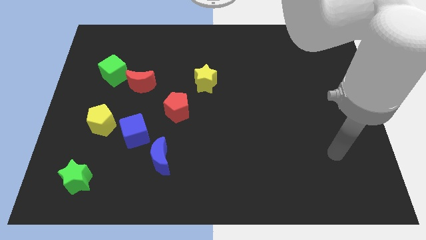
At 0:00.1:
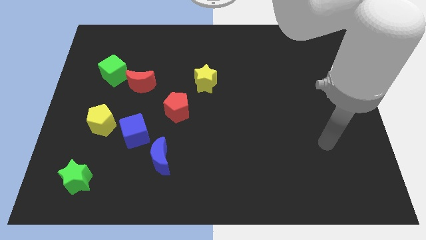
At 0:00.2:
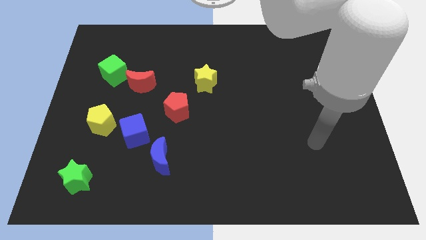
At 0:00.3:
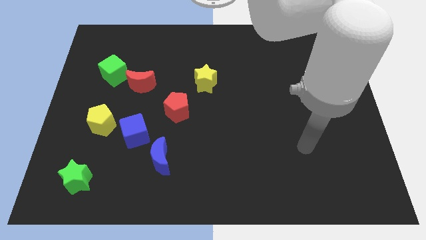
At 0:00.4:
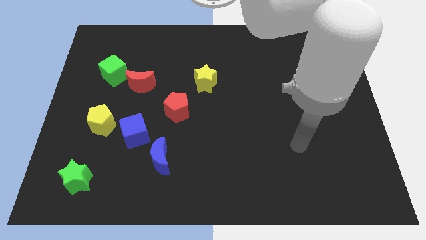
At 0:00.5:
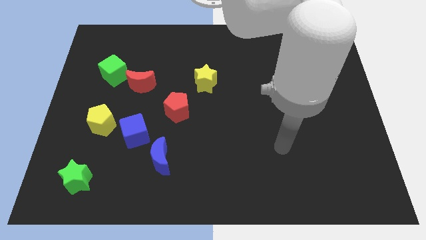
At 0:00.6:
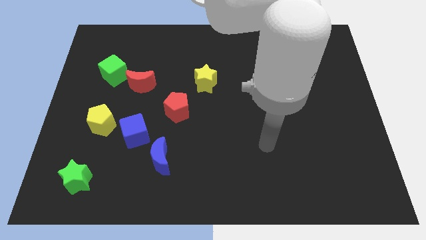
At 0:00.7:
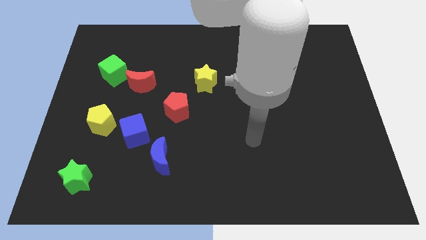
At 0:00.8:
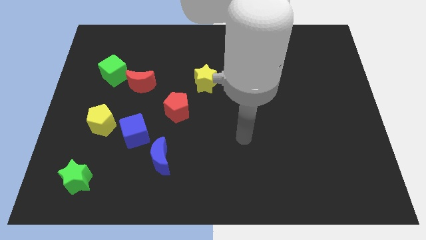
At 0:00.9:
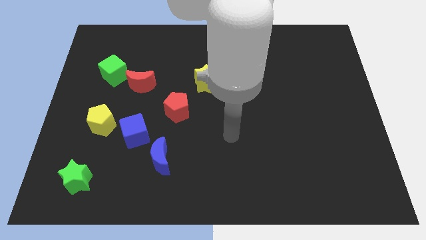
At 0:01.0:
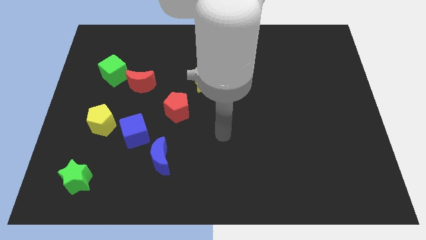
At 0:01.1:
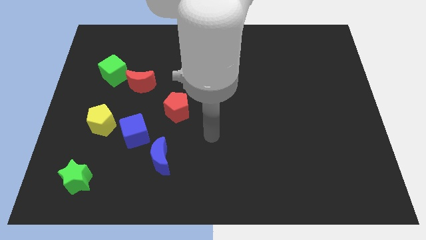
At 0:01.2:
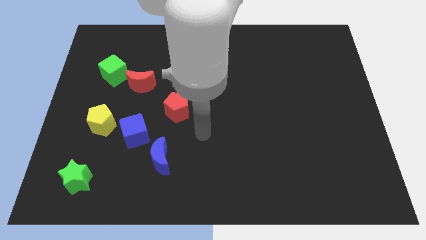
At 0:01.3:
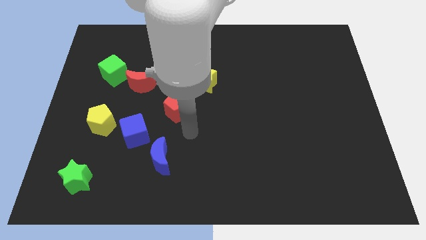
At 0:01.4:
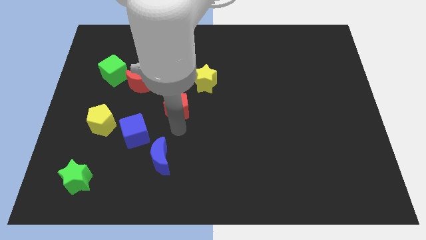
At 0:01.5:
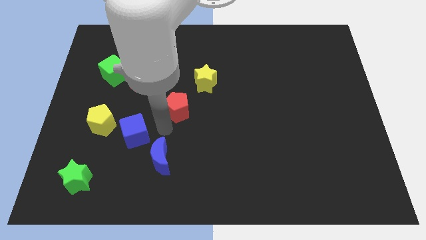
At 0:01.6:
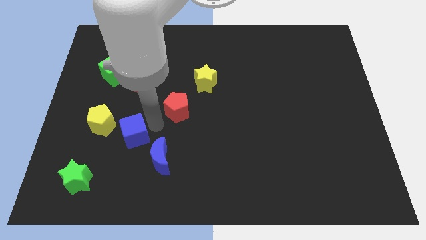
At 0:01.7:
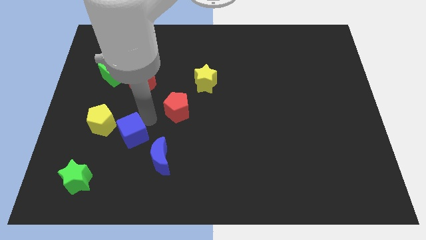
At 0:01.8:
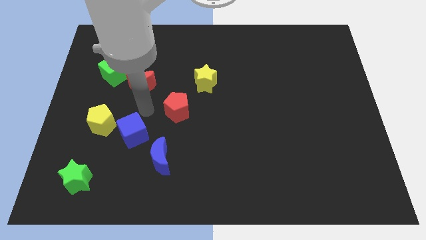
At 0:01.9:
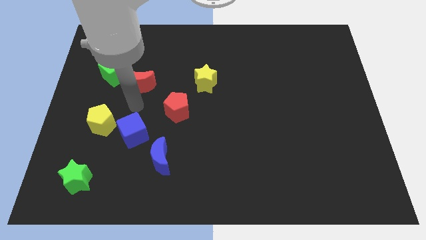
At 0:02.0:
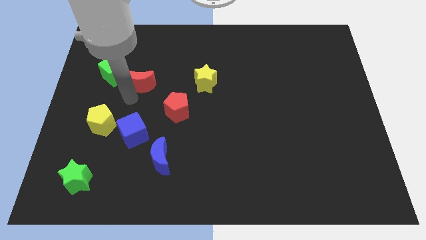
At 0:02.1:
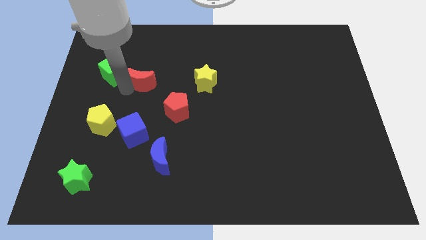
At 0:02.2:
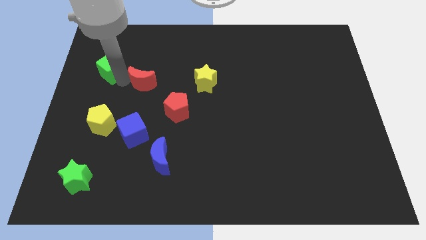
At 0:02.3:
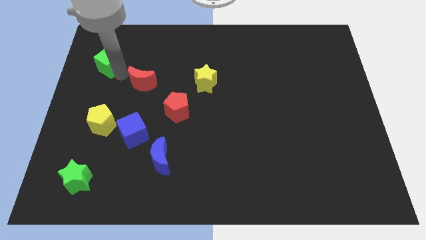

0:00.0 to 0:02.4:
move the red moon away from the green cube

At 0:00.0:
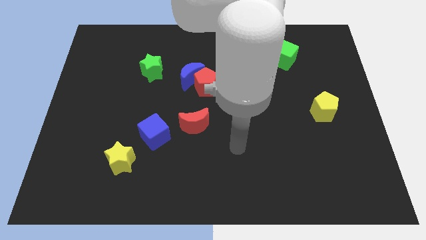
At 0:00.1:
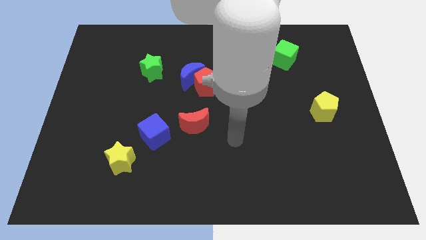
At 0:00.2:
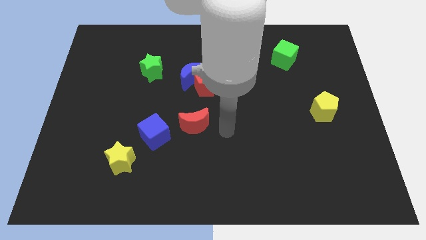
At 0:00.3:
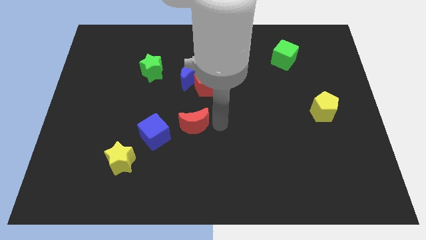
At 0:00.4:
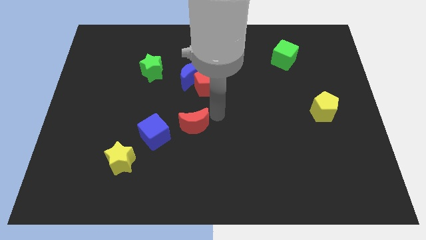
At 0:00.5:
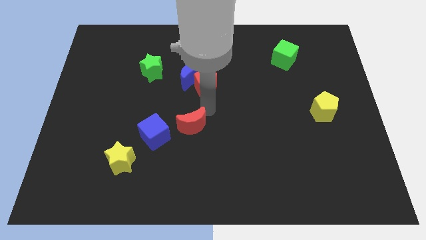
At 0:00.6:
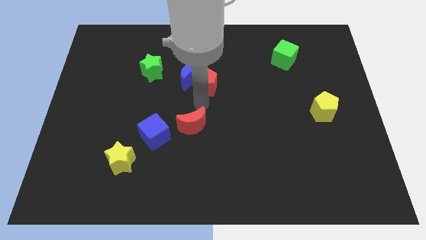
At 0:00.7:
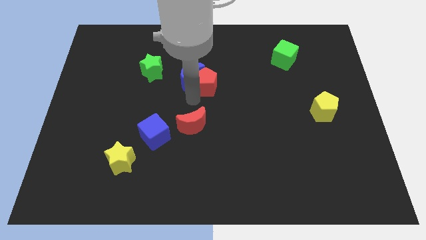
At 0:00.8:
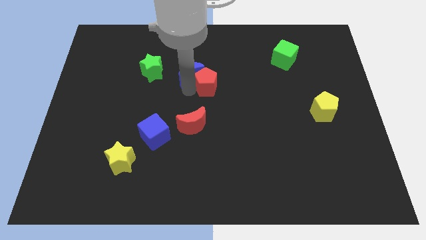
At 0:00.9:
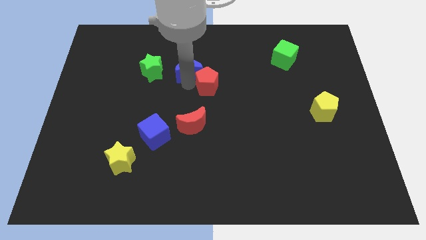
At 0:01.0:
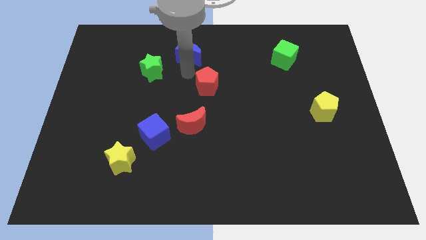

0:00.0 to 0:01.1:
separate the red pentagon from the blue moon

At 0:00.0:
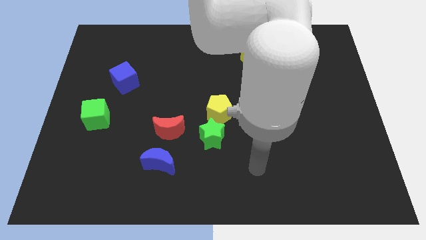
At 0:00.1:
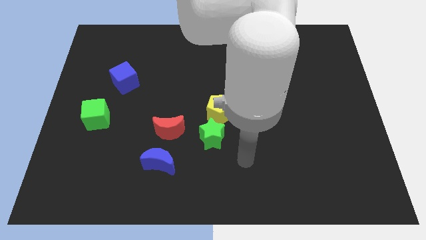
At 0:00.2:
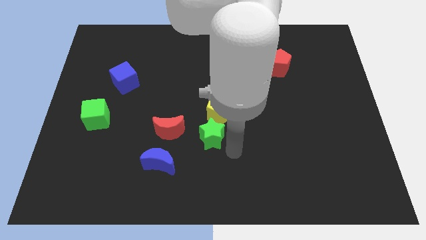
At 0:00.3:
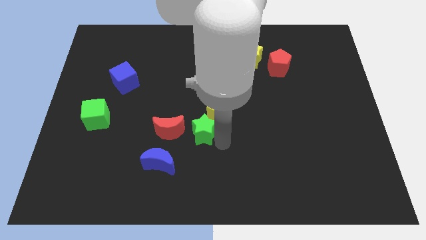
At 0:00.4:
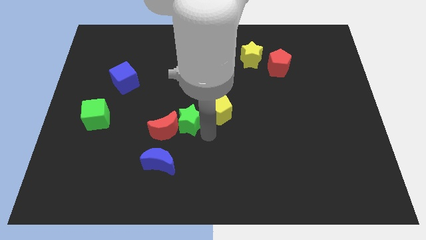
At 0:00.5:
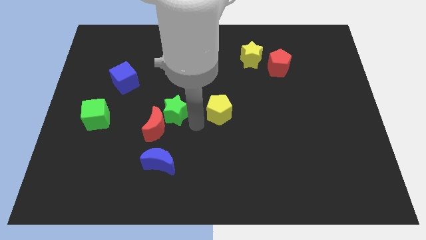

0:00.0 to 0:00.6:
separate the yellow pentagon from the green star

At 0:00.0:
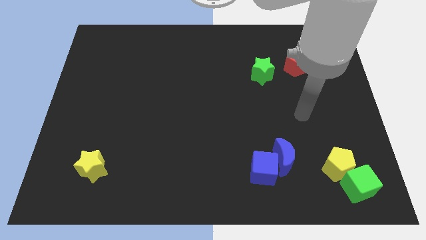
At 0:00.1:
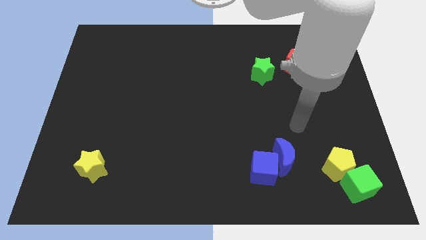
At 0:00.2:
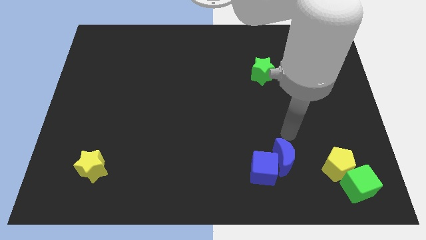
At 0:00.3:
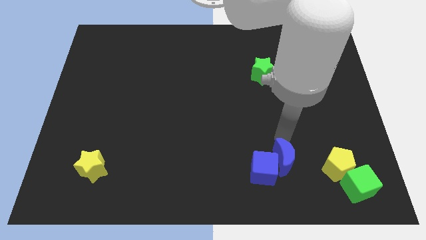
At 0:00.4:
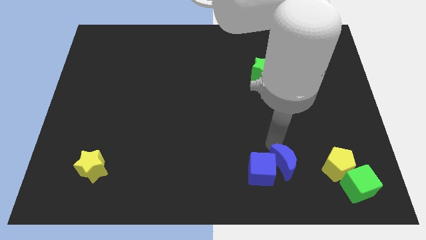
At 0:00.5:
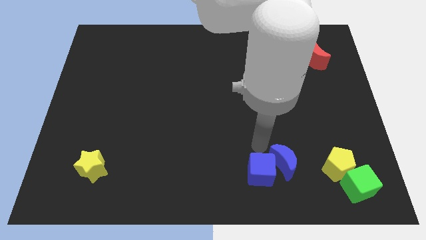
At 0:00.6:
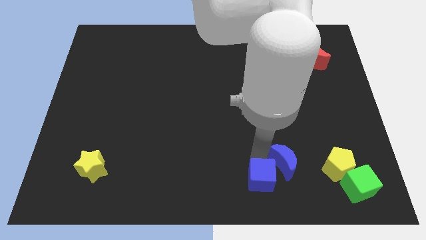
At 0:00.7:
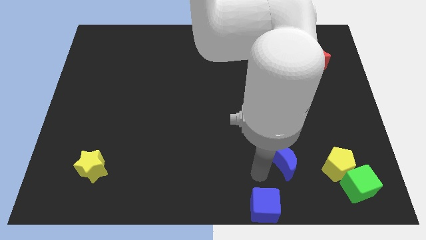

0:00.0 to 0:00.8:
pull the blue moon apart from the blue cube

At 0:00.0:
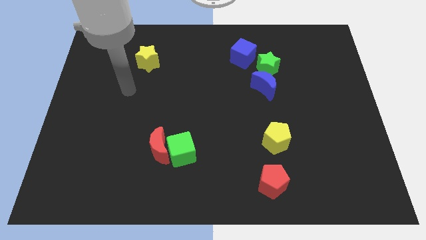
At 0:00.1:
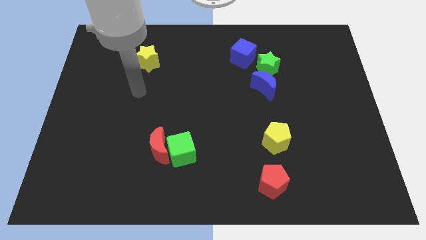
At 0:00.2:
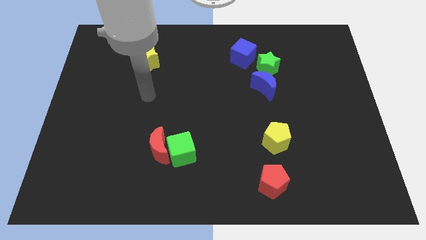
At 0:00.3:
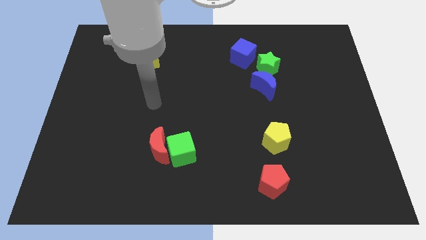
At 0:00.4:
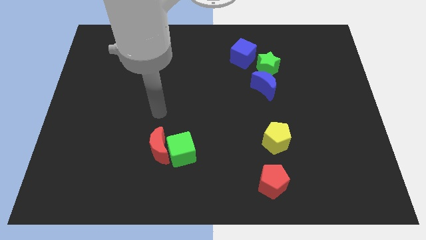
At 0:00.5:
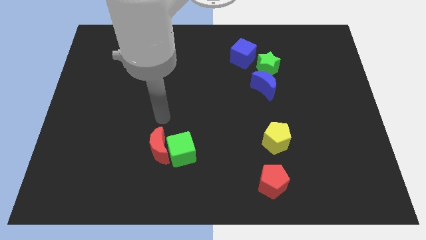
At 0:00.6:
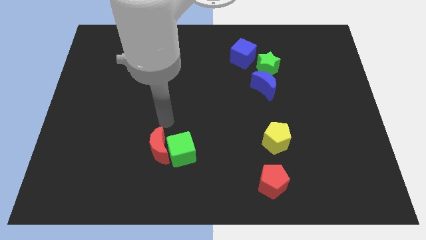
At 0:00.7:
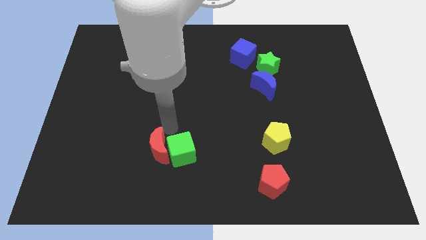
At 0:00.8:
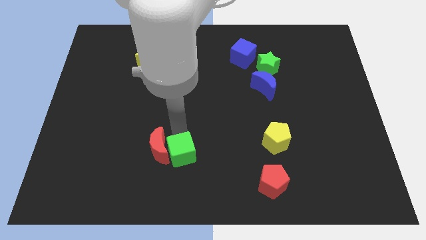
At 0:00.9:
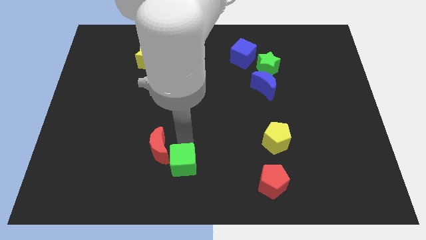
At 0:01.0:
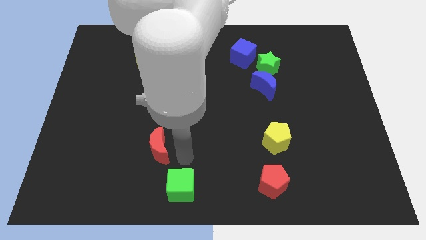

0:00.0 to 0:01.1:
pull the red moon apart from the green cube

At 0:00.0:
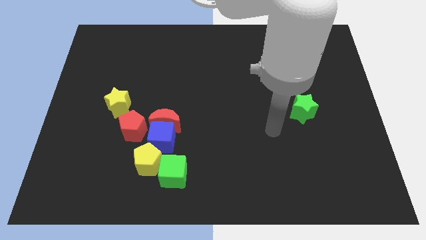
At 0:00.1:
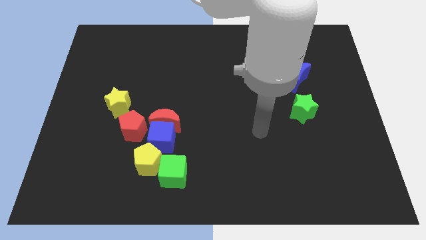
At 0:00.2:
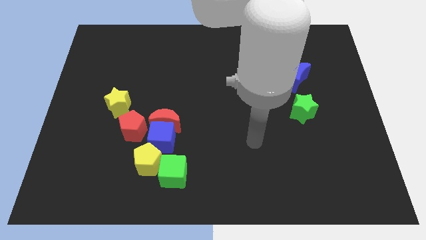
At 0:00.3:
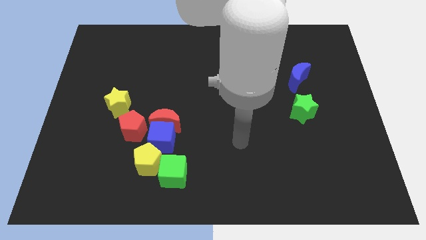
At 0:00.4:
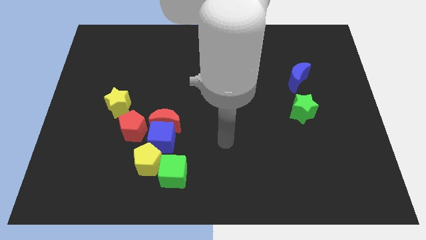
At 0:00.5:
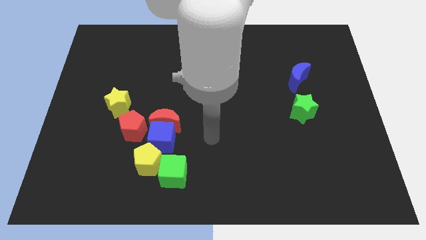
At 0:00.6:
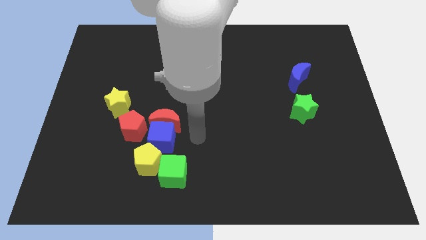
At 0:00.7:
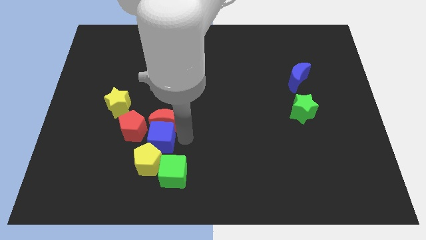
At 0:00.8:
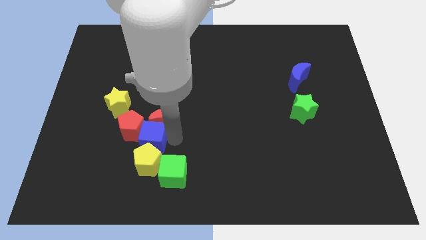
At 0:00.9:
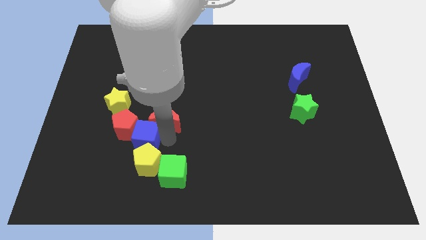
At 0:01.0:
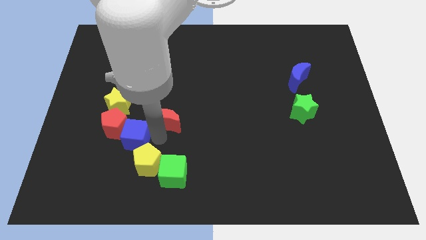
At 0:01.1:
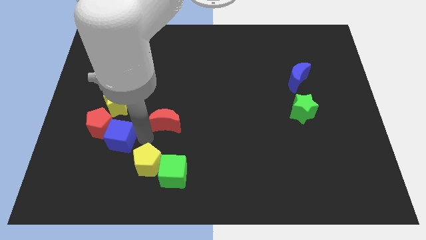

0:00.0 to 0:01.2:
separate the red moon from the blue cube and red pentagon

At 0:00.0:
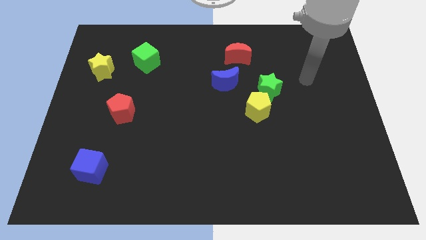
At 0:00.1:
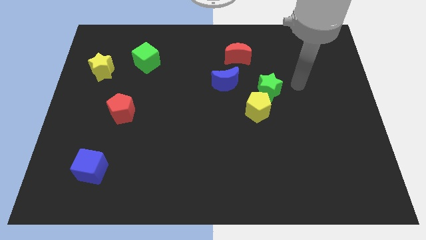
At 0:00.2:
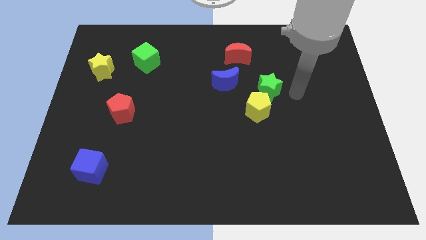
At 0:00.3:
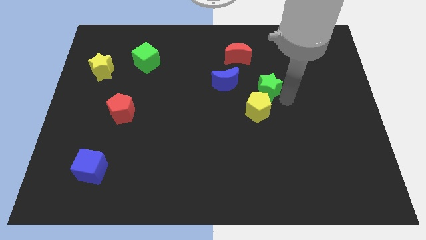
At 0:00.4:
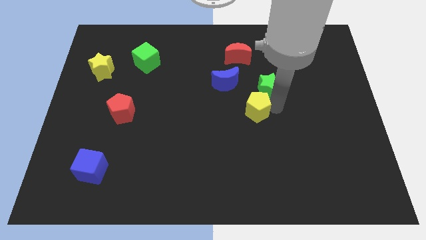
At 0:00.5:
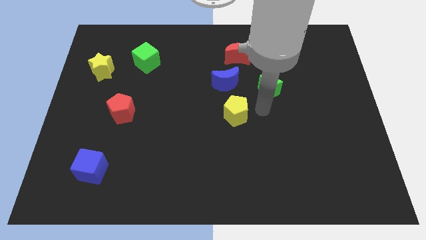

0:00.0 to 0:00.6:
move the green star away from the yellow pentagon

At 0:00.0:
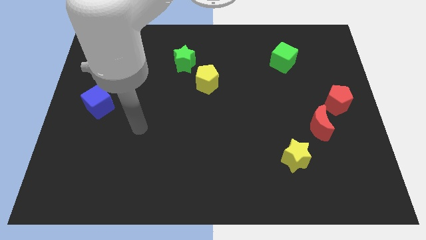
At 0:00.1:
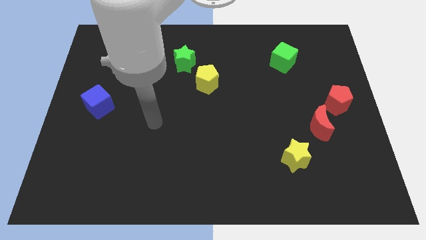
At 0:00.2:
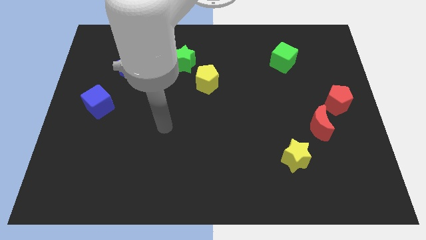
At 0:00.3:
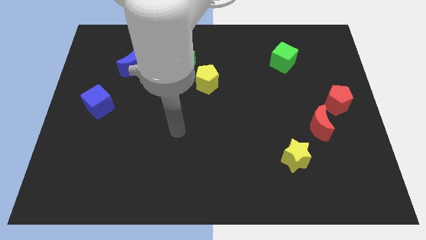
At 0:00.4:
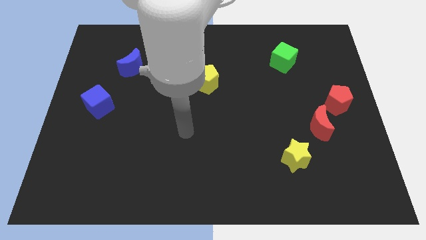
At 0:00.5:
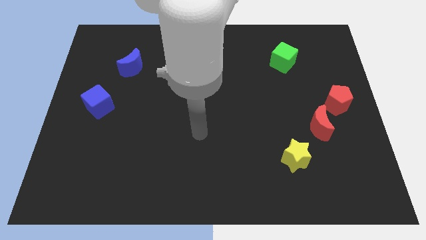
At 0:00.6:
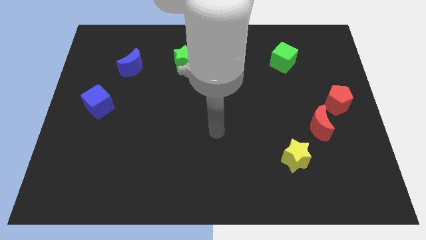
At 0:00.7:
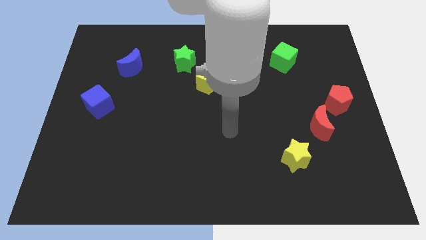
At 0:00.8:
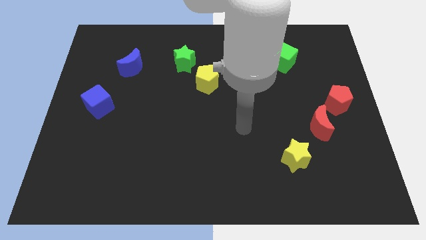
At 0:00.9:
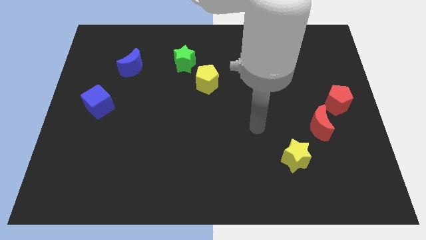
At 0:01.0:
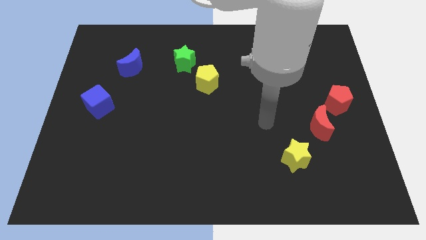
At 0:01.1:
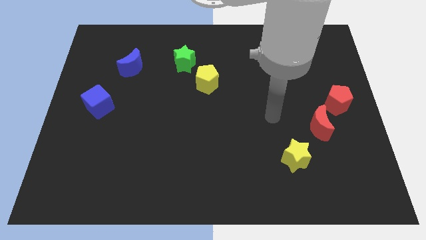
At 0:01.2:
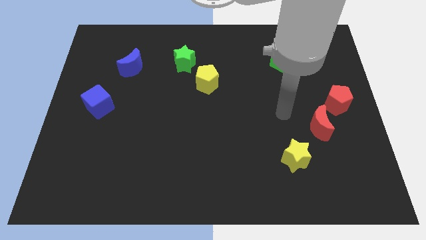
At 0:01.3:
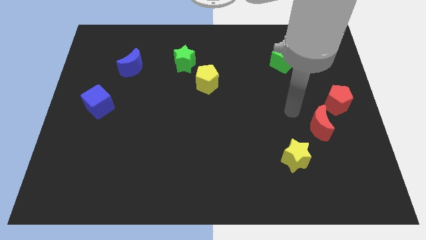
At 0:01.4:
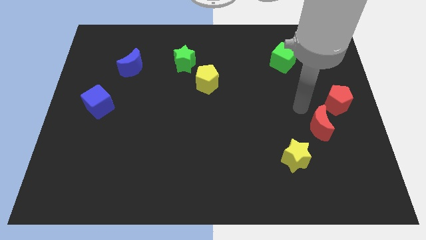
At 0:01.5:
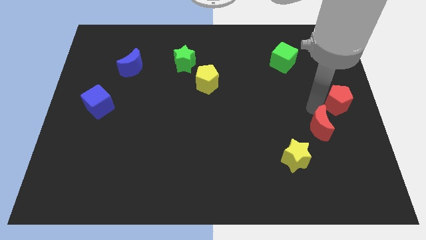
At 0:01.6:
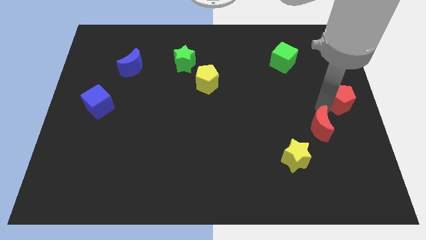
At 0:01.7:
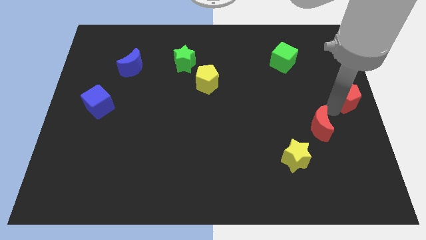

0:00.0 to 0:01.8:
separate the red moon from the red pentagon
